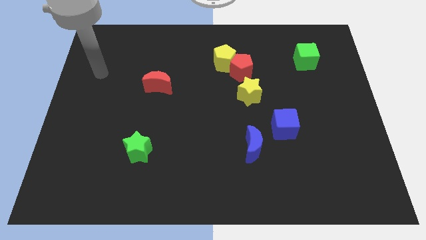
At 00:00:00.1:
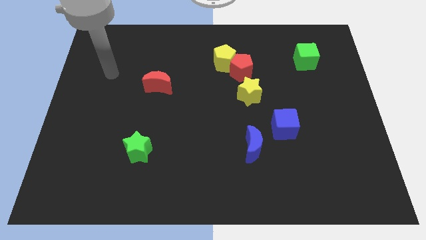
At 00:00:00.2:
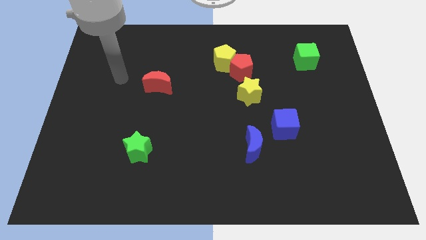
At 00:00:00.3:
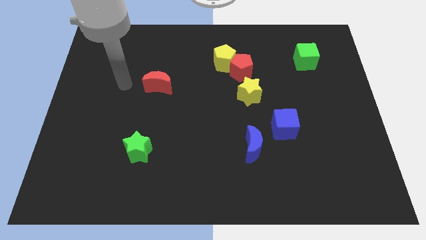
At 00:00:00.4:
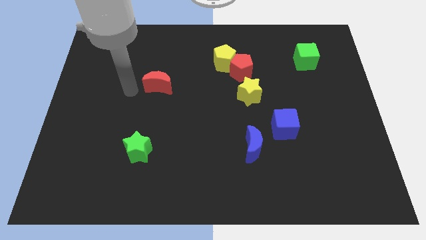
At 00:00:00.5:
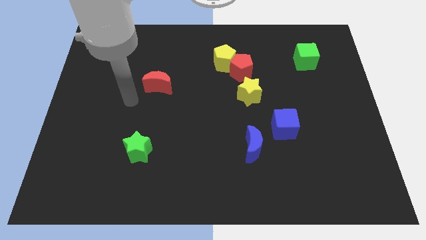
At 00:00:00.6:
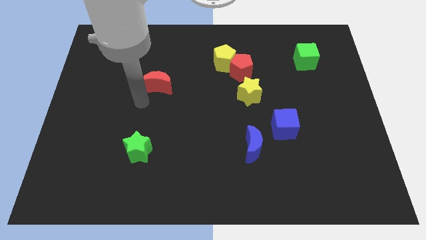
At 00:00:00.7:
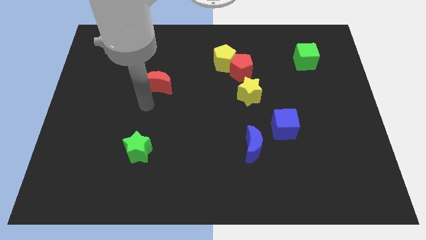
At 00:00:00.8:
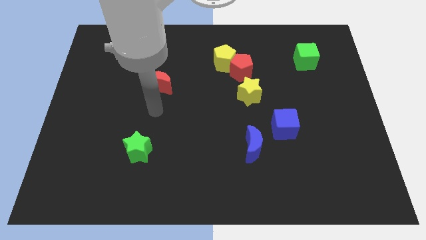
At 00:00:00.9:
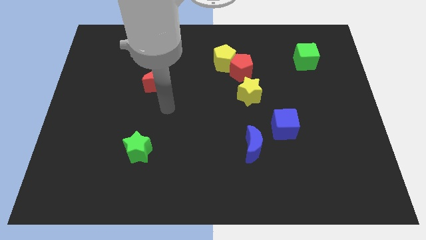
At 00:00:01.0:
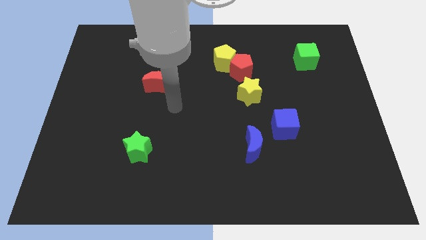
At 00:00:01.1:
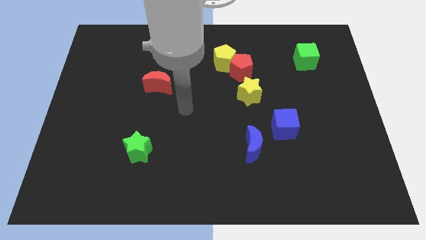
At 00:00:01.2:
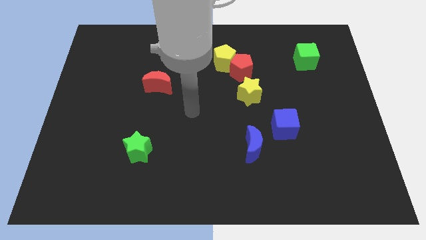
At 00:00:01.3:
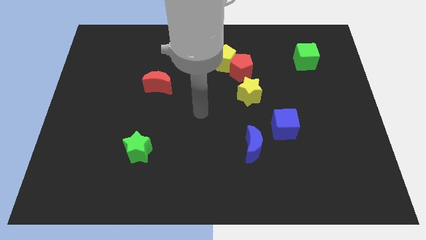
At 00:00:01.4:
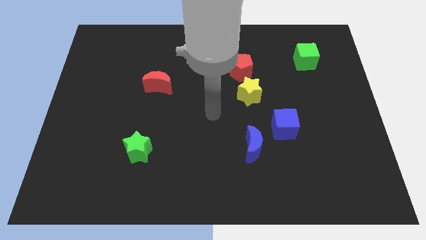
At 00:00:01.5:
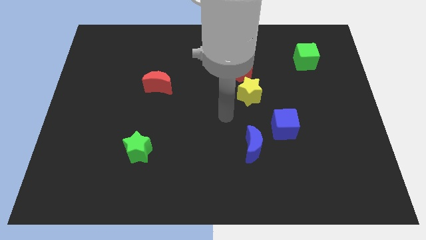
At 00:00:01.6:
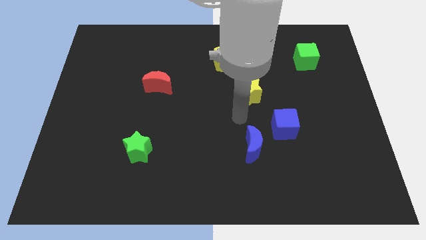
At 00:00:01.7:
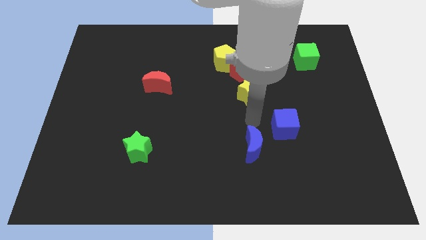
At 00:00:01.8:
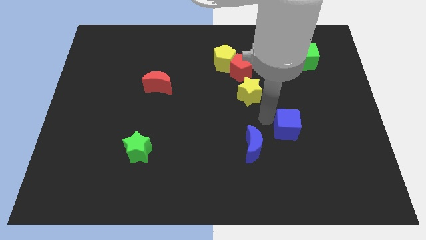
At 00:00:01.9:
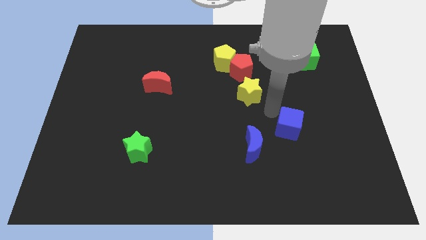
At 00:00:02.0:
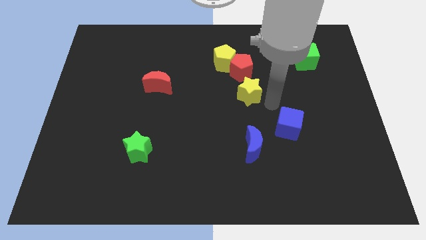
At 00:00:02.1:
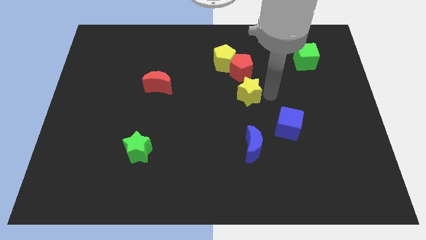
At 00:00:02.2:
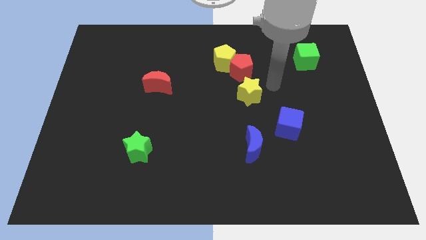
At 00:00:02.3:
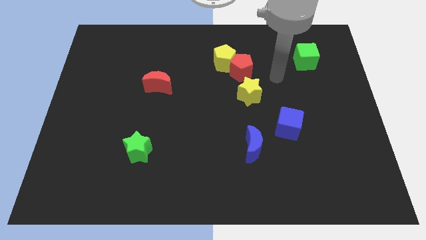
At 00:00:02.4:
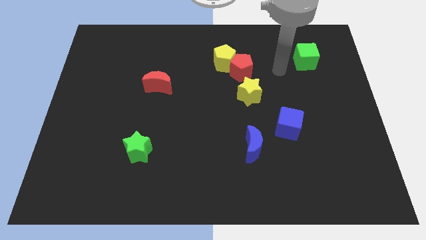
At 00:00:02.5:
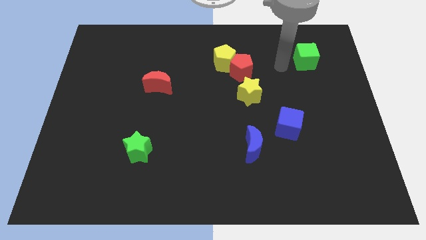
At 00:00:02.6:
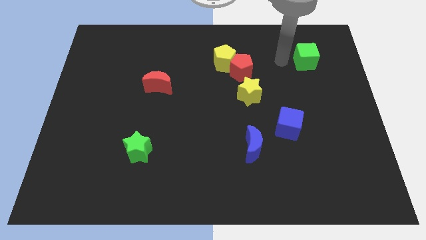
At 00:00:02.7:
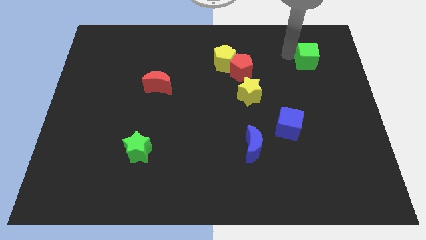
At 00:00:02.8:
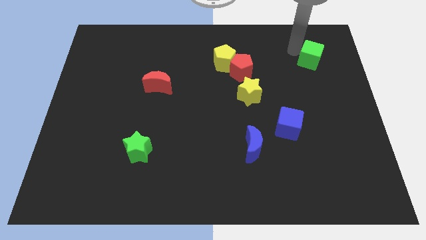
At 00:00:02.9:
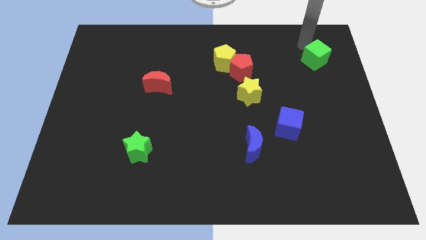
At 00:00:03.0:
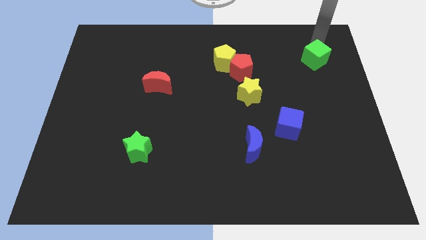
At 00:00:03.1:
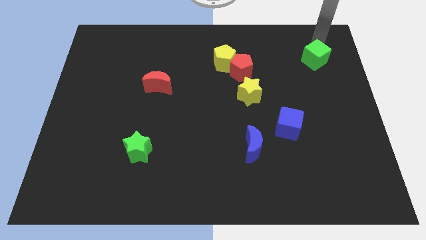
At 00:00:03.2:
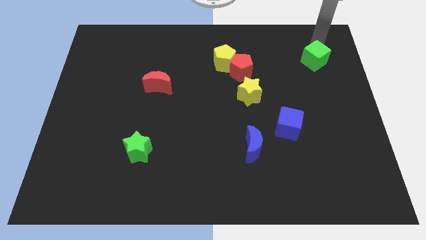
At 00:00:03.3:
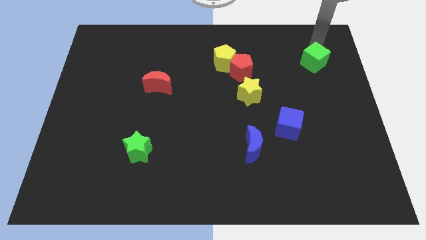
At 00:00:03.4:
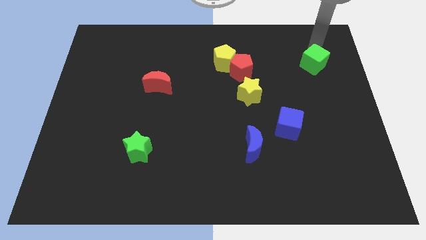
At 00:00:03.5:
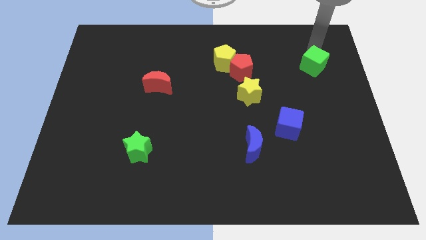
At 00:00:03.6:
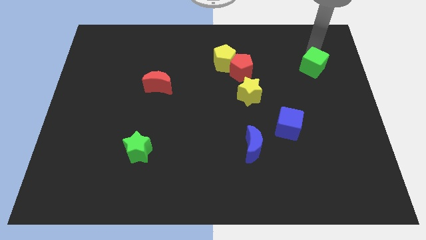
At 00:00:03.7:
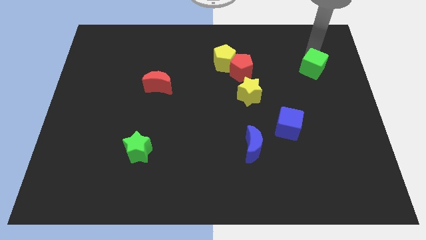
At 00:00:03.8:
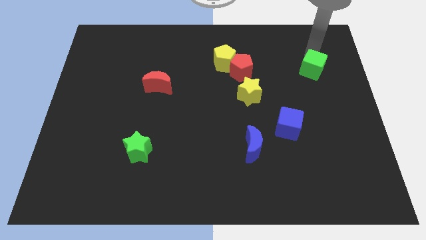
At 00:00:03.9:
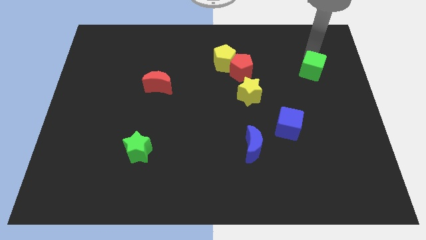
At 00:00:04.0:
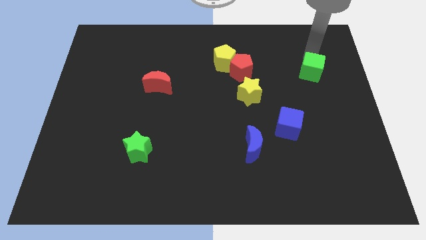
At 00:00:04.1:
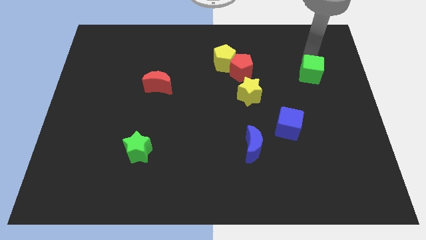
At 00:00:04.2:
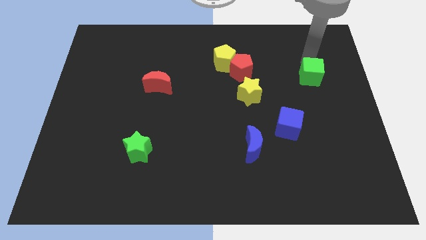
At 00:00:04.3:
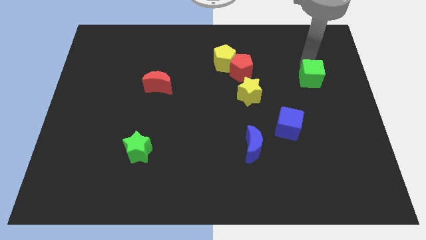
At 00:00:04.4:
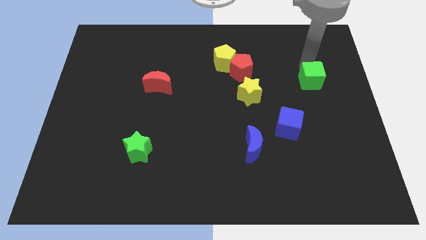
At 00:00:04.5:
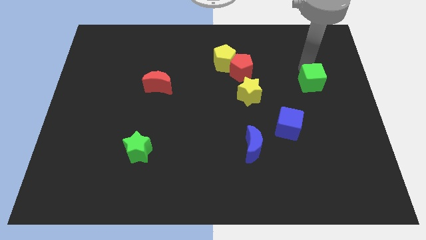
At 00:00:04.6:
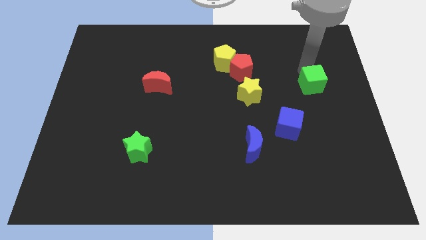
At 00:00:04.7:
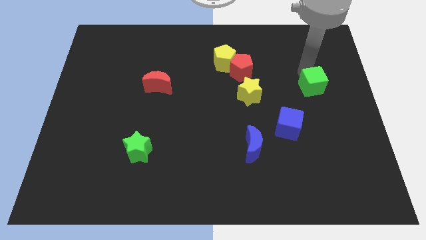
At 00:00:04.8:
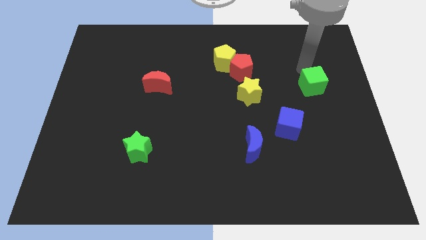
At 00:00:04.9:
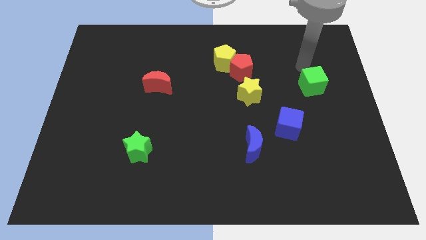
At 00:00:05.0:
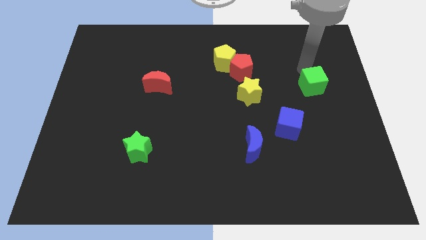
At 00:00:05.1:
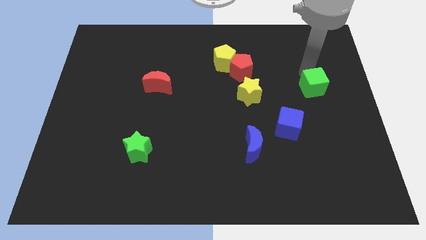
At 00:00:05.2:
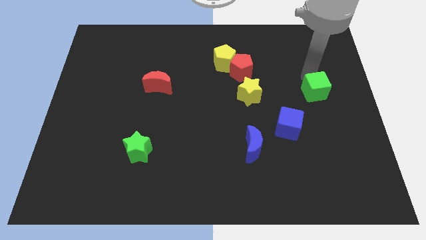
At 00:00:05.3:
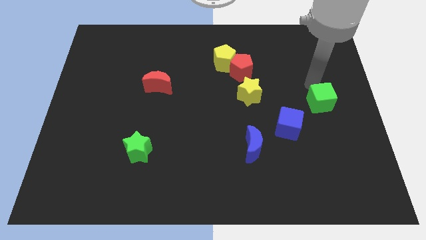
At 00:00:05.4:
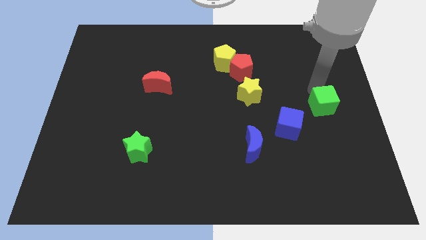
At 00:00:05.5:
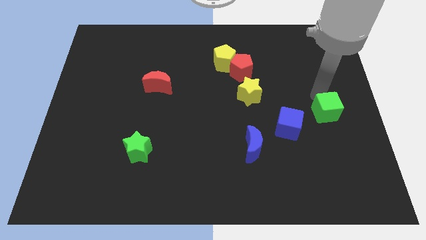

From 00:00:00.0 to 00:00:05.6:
put the green cube to the right of the blue cube

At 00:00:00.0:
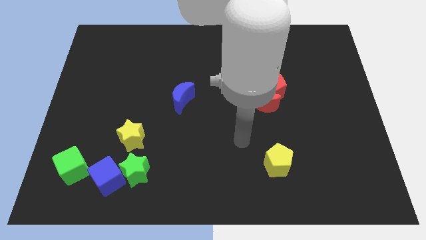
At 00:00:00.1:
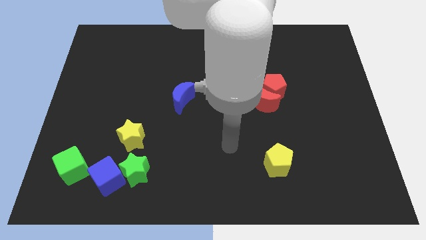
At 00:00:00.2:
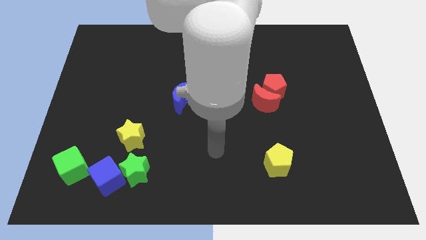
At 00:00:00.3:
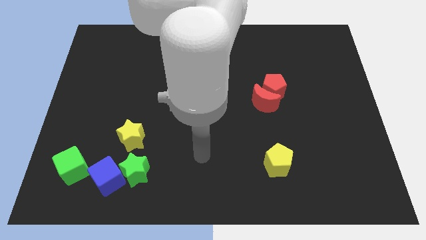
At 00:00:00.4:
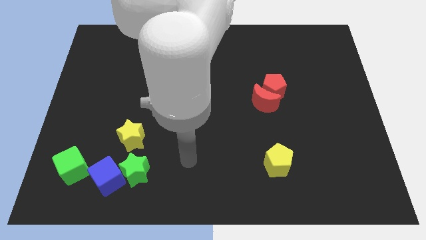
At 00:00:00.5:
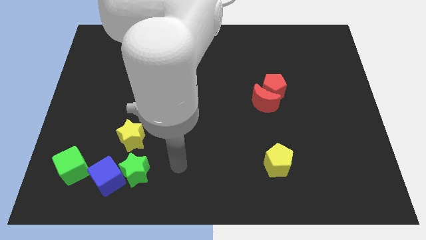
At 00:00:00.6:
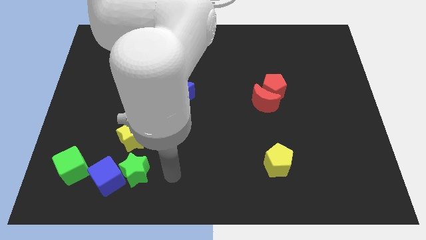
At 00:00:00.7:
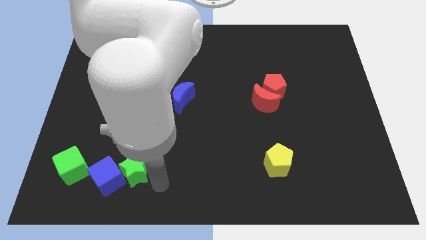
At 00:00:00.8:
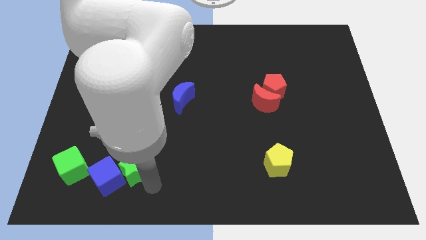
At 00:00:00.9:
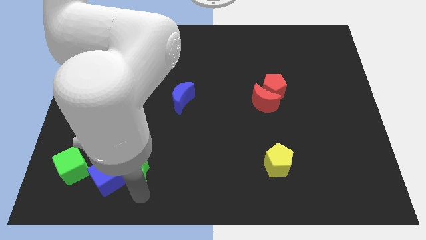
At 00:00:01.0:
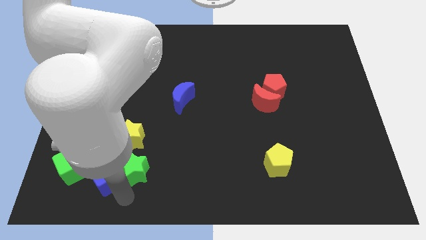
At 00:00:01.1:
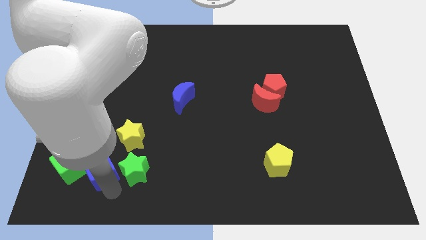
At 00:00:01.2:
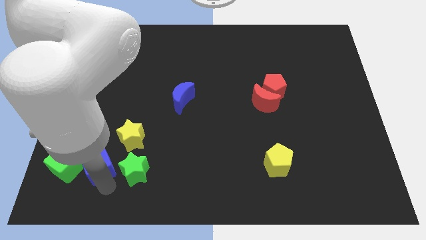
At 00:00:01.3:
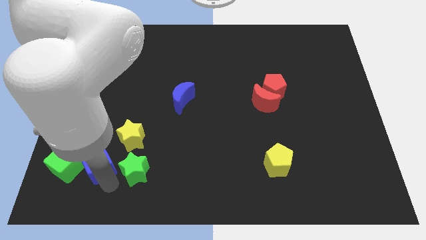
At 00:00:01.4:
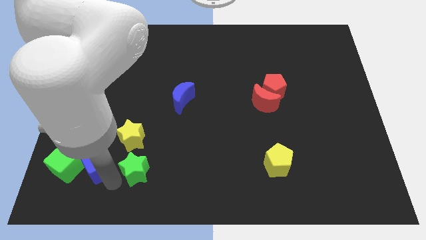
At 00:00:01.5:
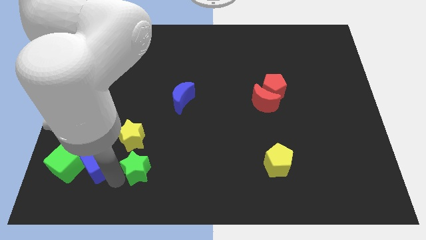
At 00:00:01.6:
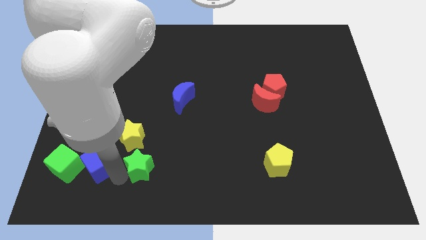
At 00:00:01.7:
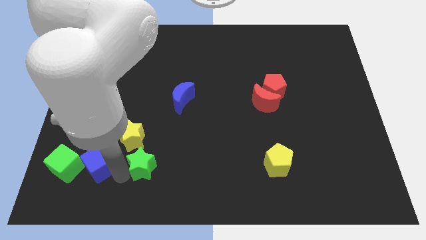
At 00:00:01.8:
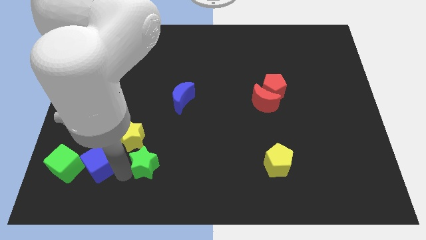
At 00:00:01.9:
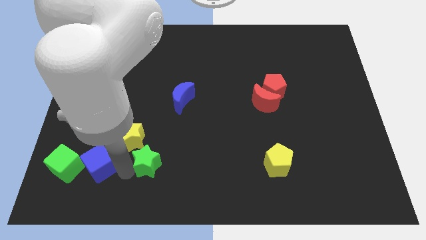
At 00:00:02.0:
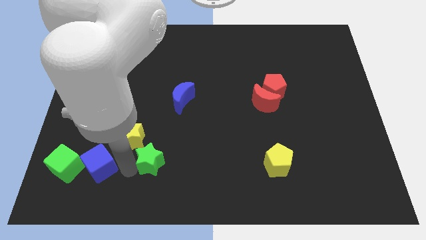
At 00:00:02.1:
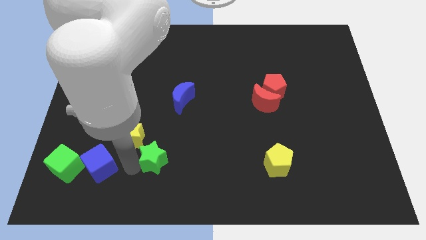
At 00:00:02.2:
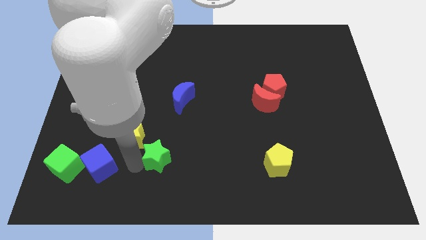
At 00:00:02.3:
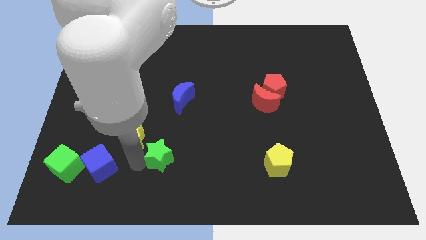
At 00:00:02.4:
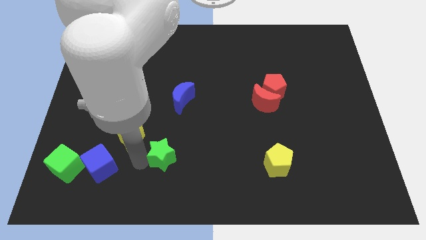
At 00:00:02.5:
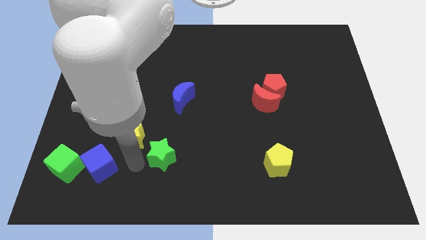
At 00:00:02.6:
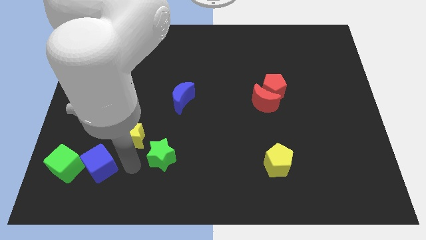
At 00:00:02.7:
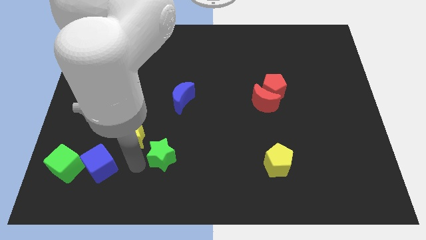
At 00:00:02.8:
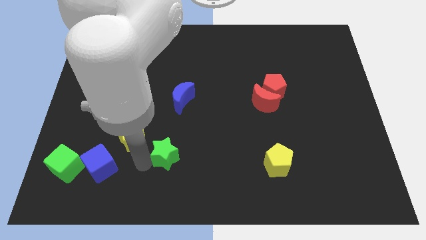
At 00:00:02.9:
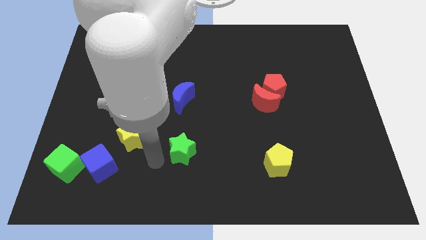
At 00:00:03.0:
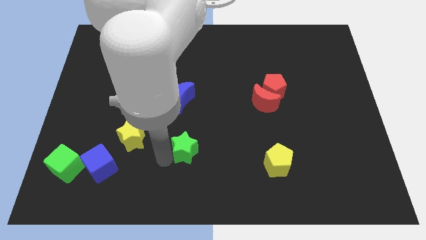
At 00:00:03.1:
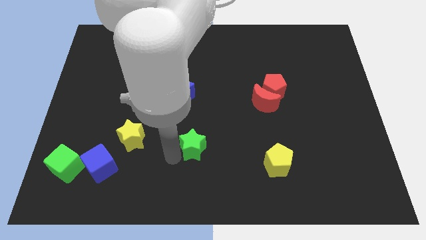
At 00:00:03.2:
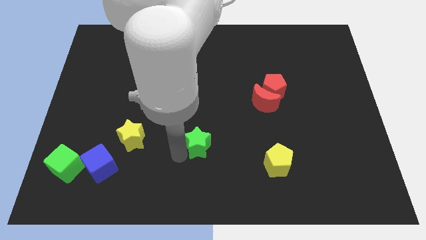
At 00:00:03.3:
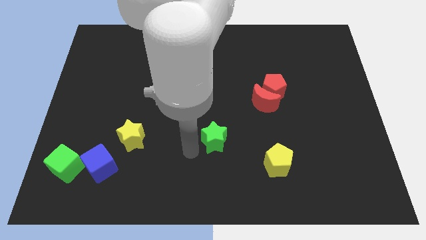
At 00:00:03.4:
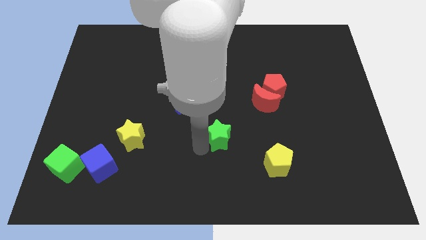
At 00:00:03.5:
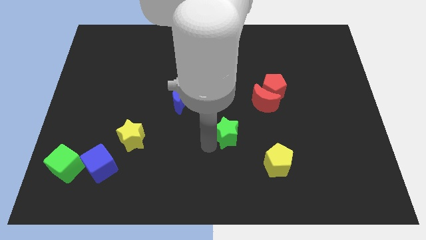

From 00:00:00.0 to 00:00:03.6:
slide the green star to the bottom left of the red moon
